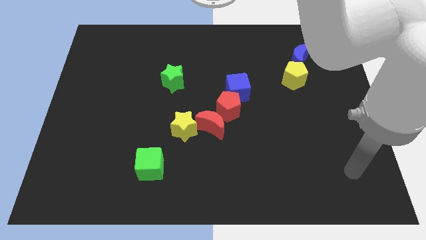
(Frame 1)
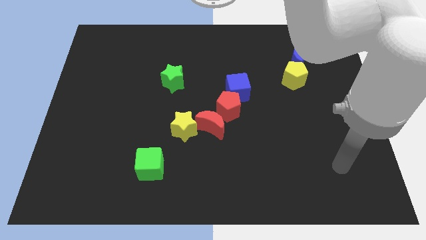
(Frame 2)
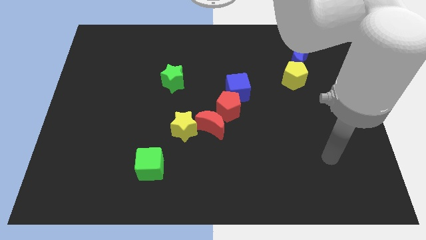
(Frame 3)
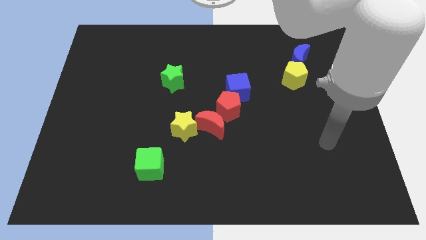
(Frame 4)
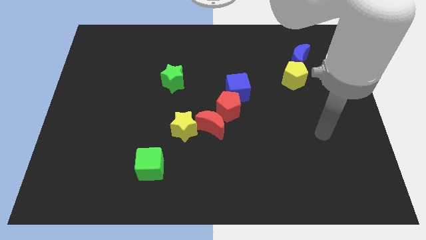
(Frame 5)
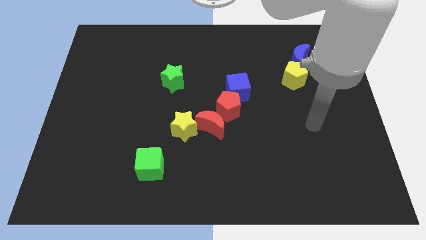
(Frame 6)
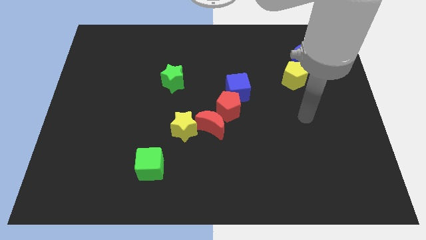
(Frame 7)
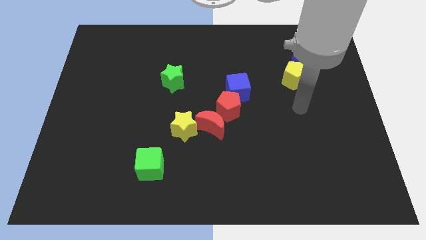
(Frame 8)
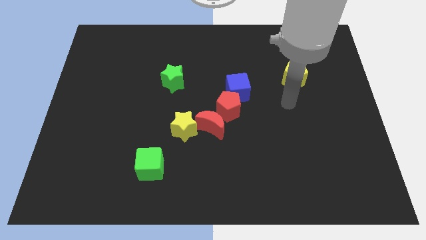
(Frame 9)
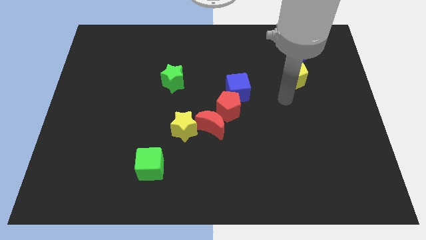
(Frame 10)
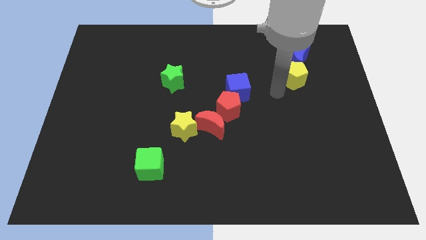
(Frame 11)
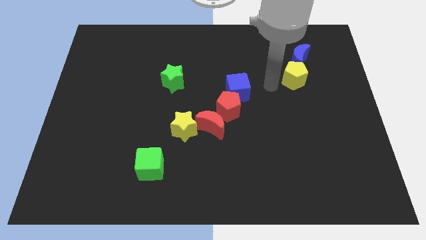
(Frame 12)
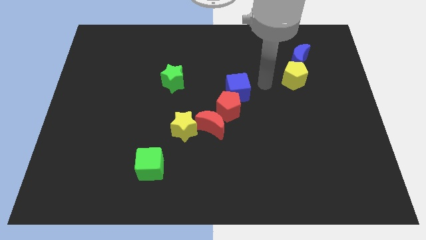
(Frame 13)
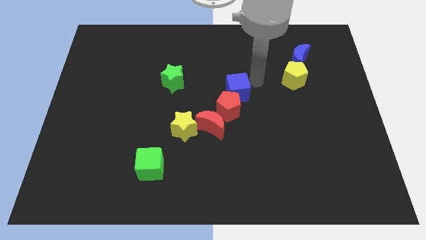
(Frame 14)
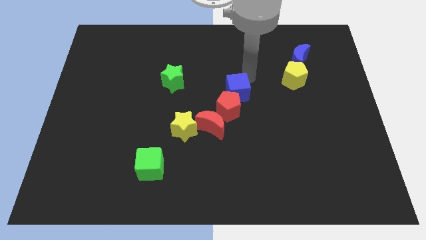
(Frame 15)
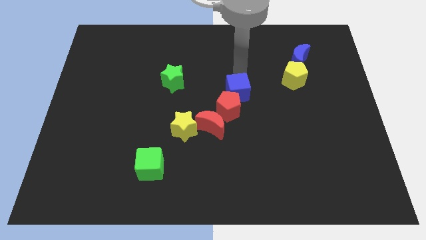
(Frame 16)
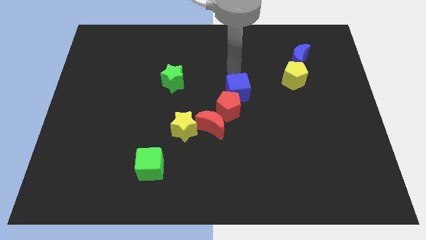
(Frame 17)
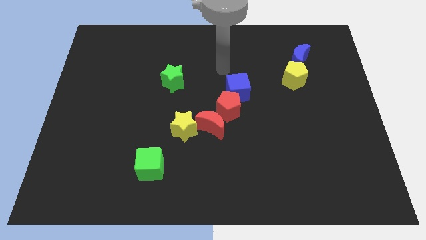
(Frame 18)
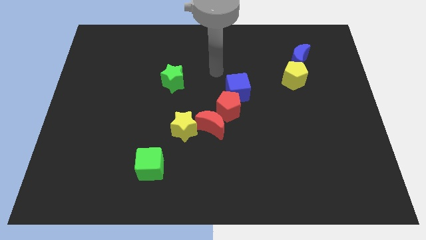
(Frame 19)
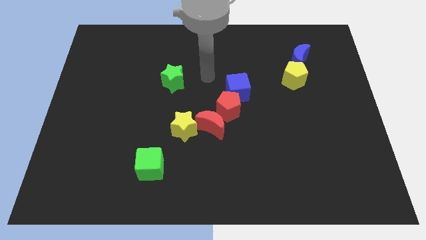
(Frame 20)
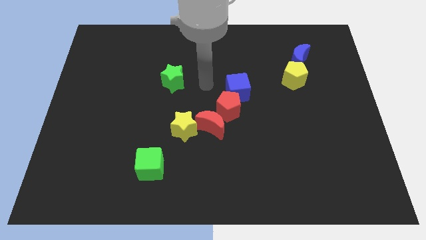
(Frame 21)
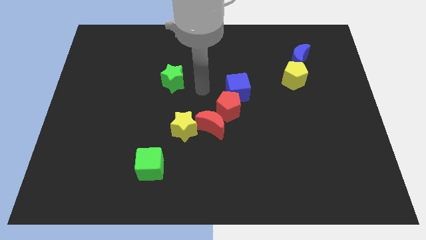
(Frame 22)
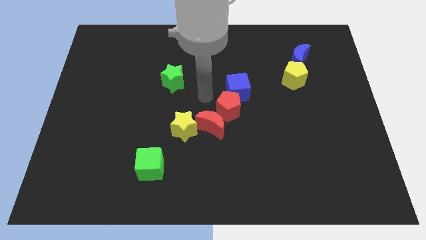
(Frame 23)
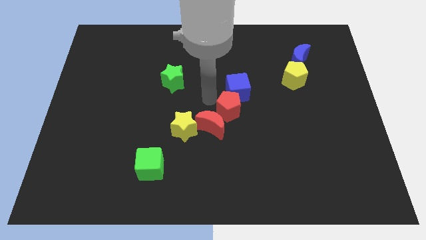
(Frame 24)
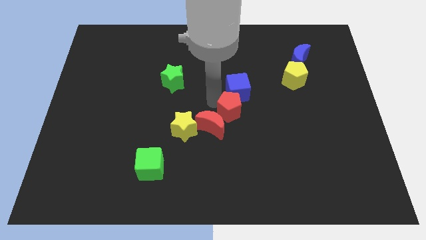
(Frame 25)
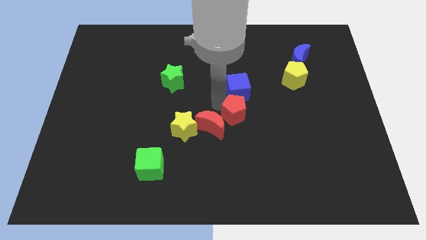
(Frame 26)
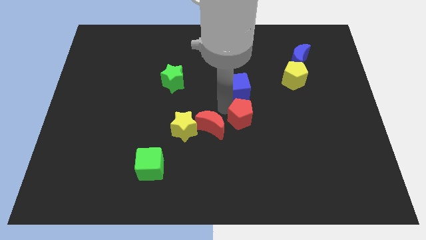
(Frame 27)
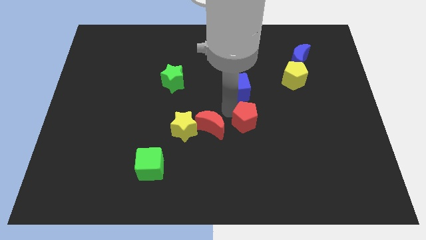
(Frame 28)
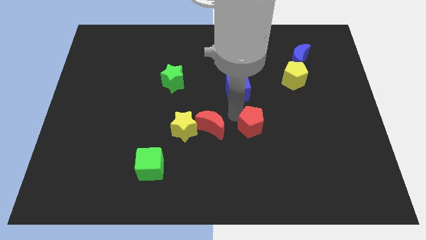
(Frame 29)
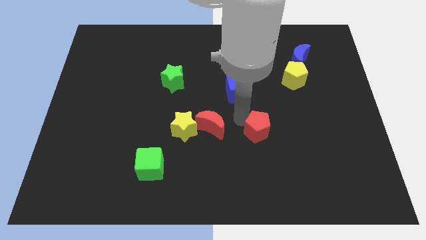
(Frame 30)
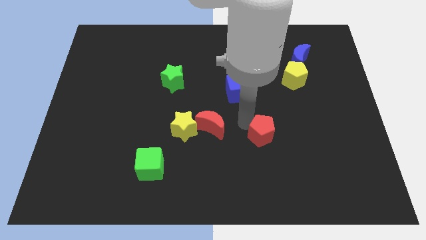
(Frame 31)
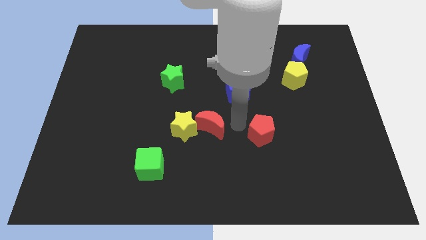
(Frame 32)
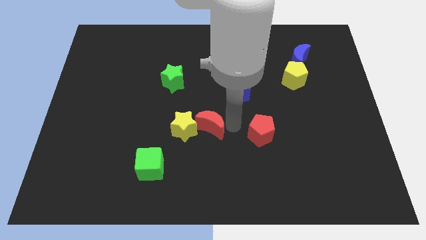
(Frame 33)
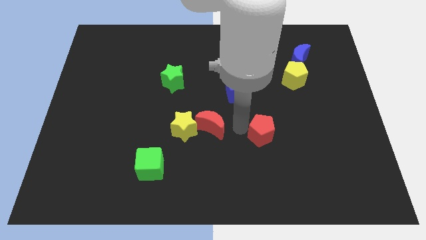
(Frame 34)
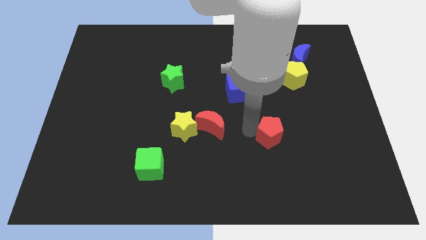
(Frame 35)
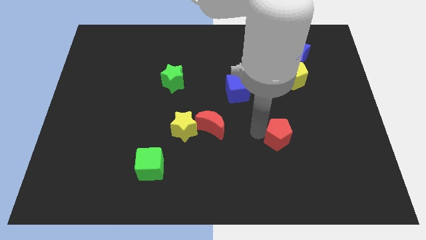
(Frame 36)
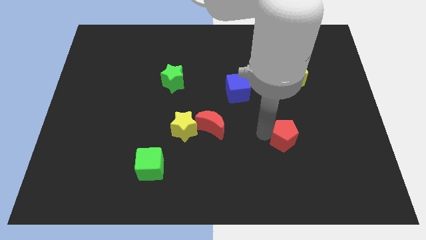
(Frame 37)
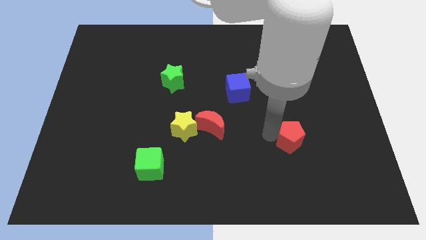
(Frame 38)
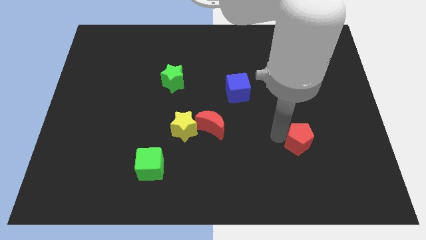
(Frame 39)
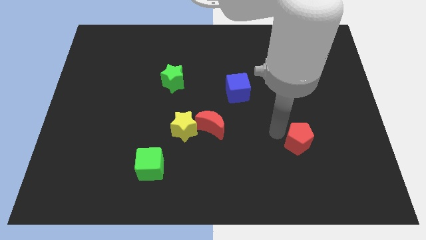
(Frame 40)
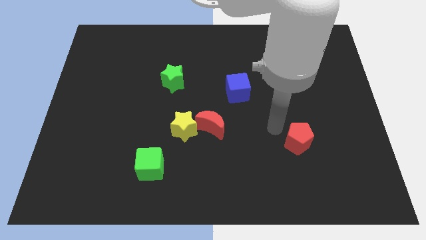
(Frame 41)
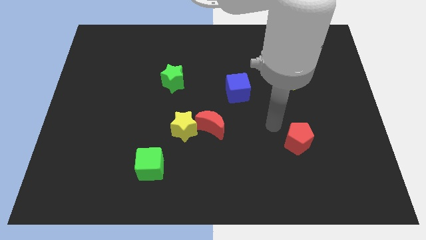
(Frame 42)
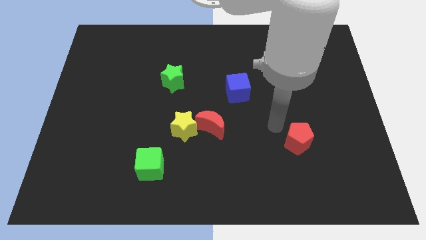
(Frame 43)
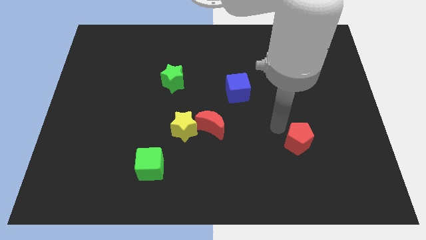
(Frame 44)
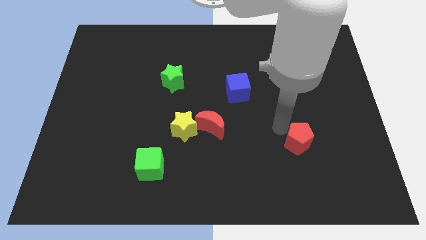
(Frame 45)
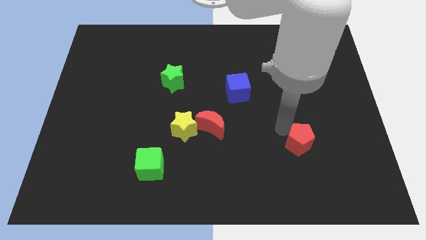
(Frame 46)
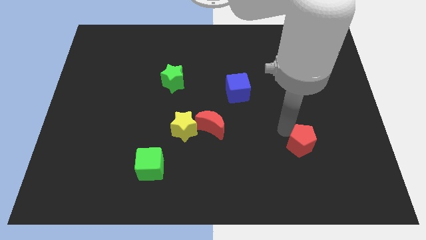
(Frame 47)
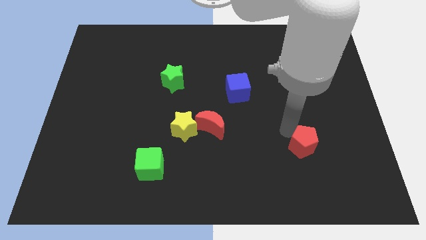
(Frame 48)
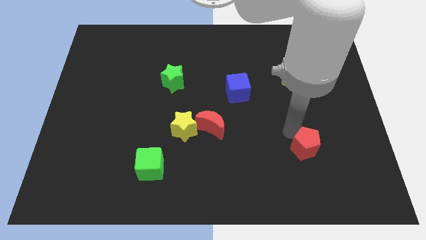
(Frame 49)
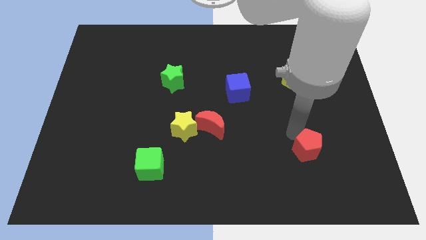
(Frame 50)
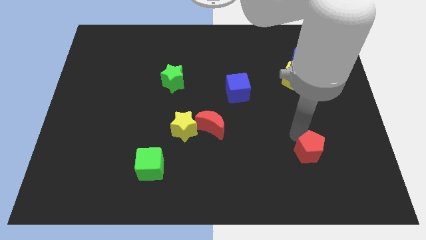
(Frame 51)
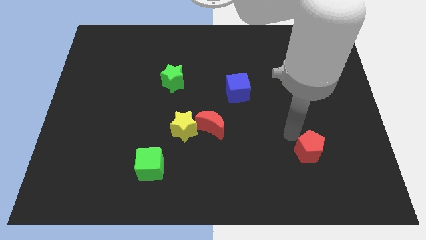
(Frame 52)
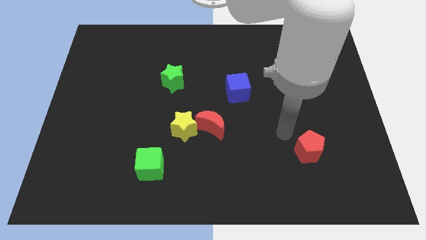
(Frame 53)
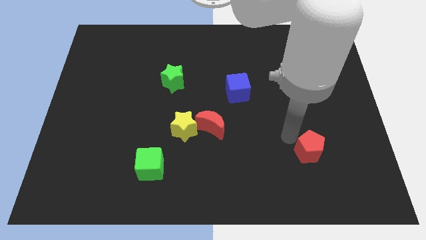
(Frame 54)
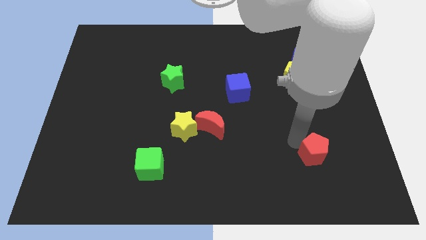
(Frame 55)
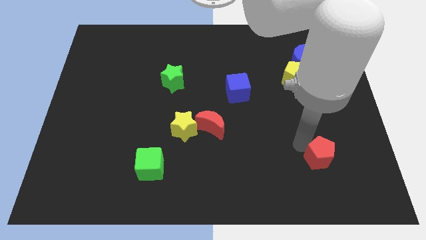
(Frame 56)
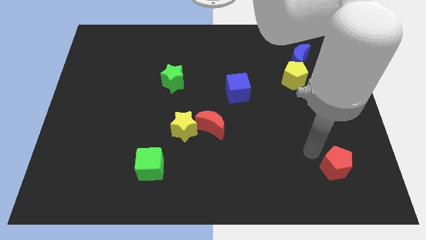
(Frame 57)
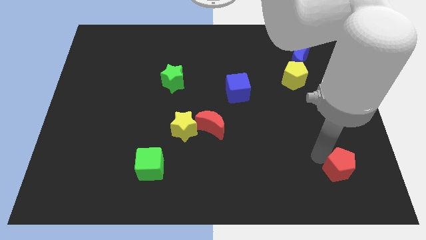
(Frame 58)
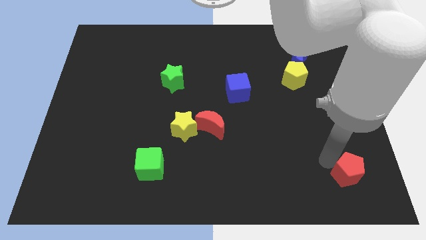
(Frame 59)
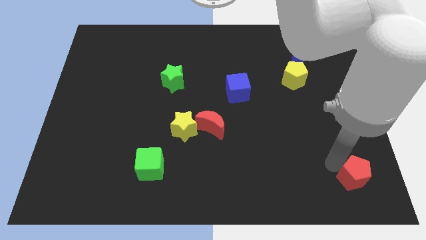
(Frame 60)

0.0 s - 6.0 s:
slide the red pentagon to the bottom right of the board

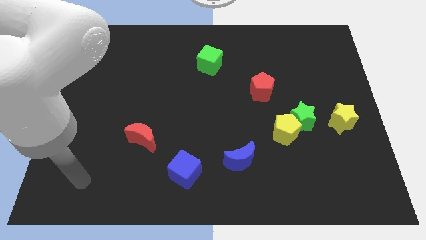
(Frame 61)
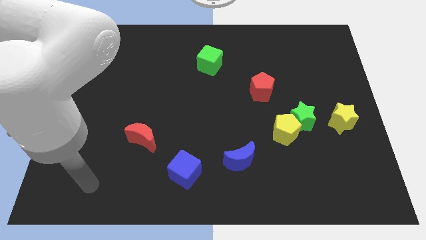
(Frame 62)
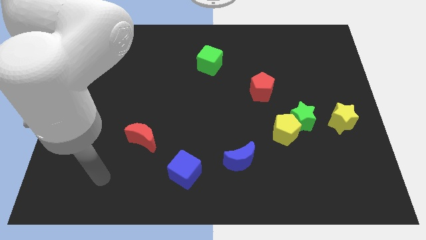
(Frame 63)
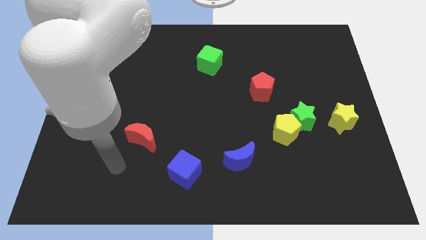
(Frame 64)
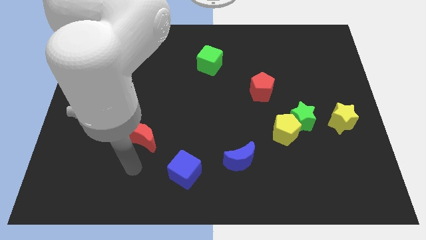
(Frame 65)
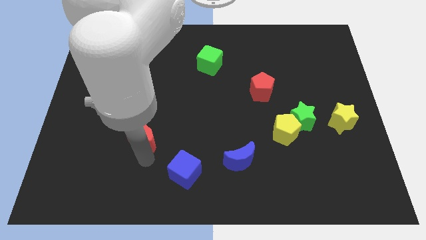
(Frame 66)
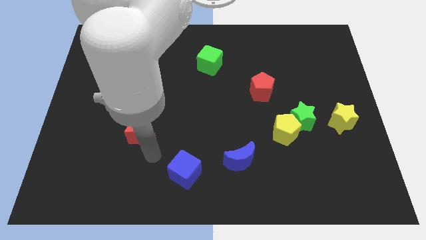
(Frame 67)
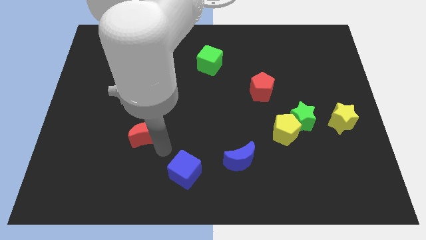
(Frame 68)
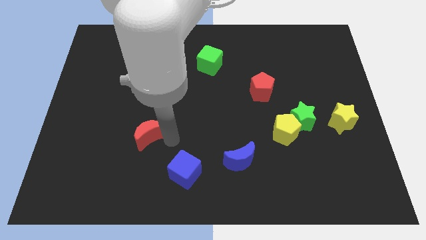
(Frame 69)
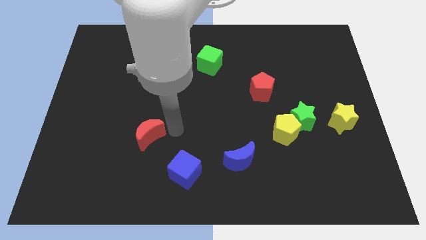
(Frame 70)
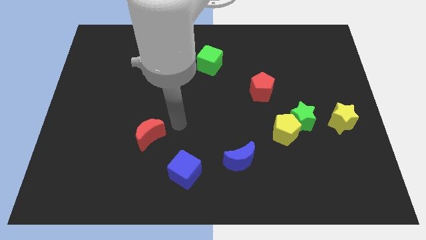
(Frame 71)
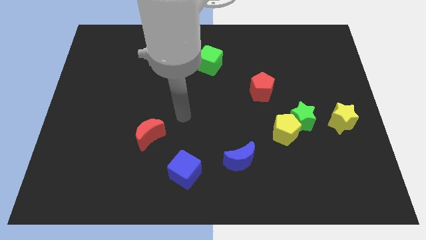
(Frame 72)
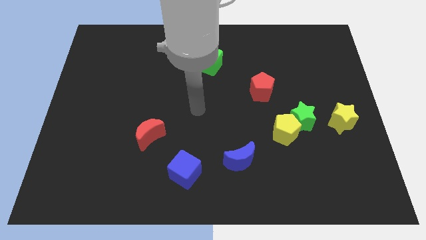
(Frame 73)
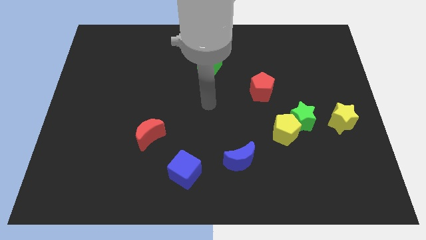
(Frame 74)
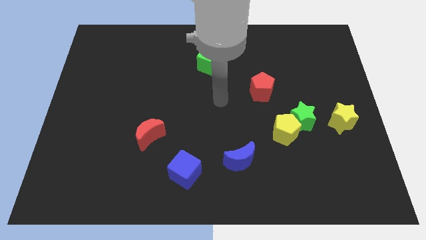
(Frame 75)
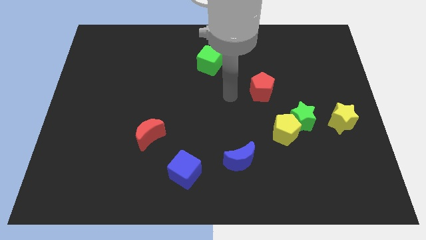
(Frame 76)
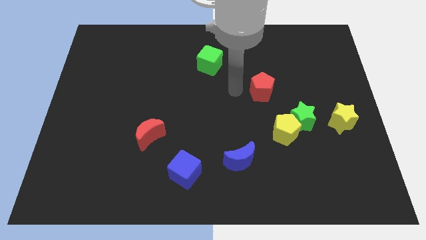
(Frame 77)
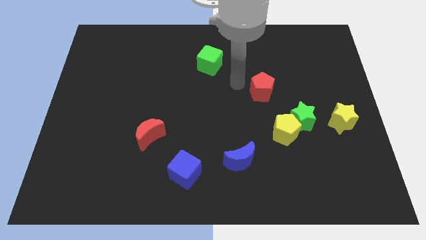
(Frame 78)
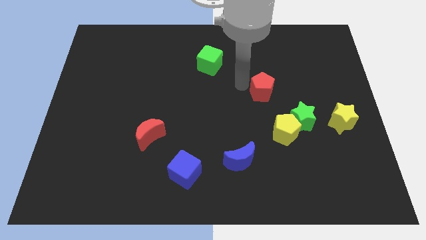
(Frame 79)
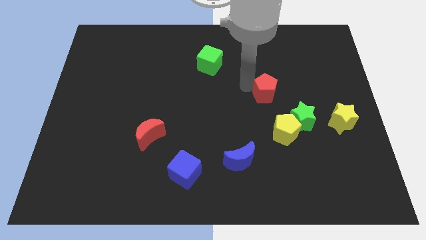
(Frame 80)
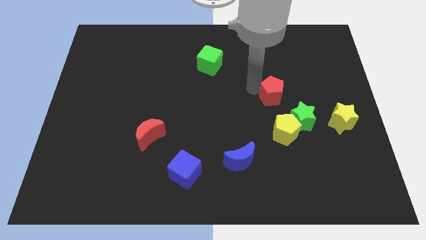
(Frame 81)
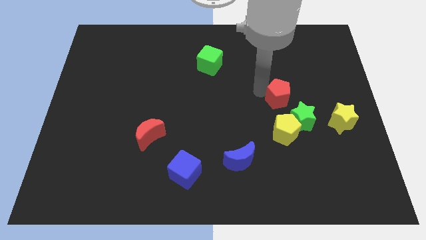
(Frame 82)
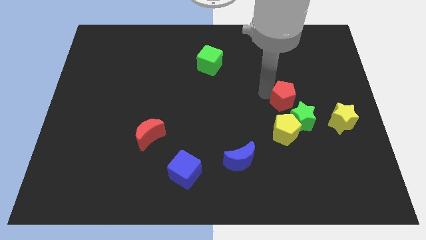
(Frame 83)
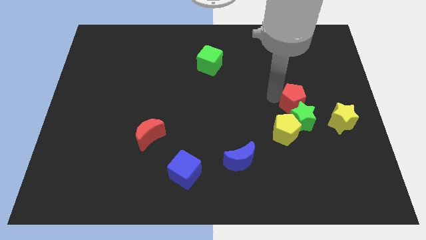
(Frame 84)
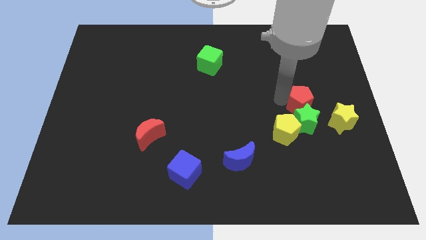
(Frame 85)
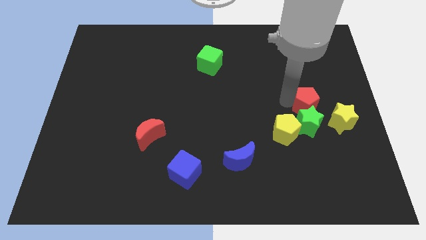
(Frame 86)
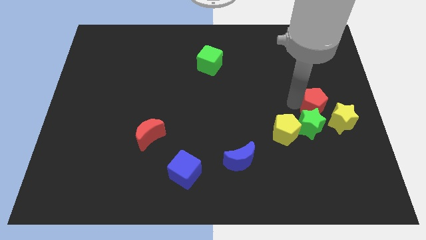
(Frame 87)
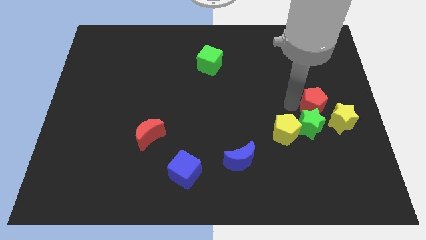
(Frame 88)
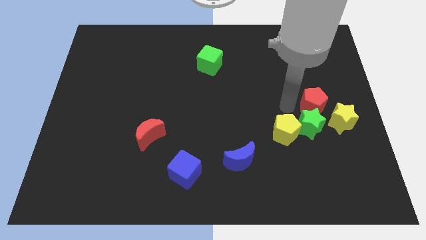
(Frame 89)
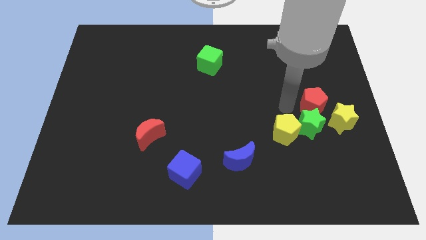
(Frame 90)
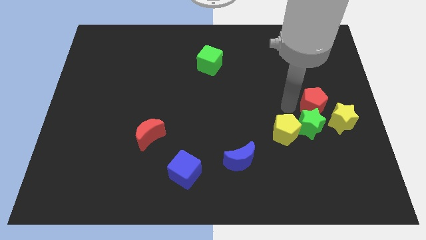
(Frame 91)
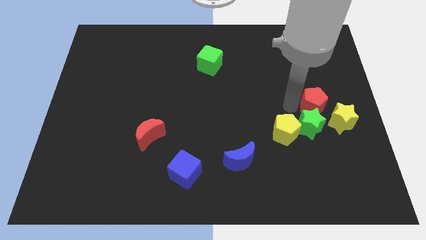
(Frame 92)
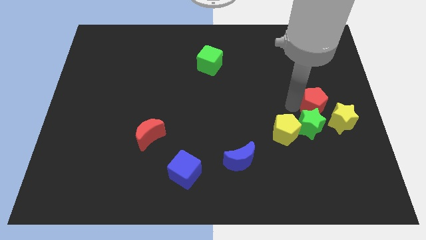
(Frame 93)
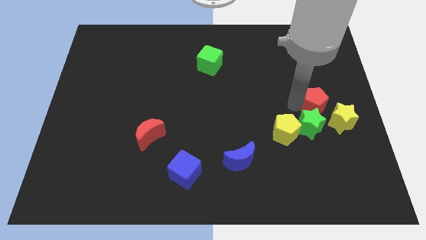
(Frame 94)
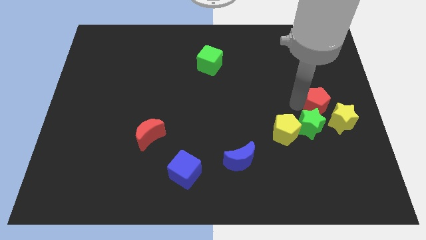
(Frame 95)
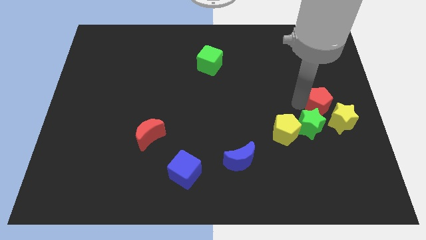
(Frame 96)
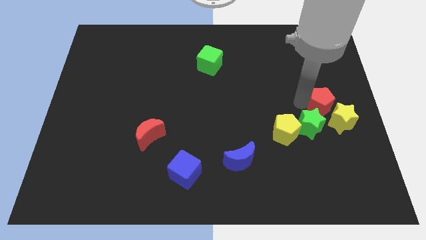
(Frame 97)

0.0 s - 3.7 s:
move the red pentagon to the right side of the board
